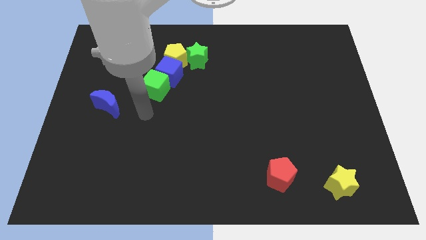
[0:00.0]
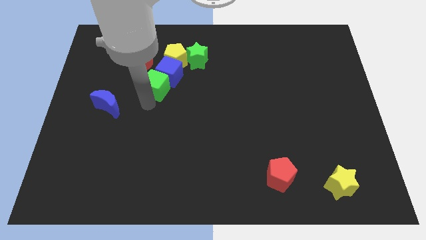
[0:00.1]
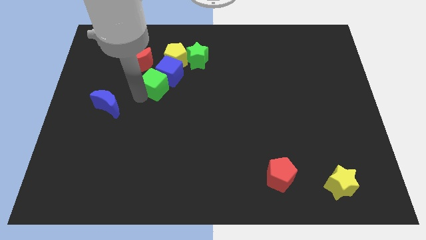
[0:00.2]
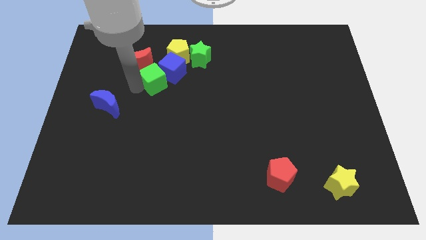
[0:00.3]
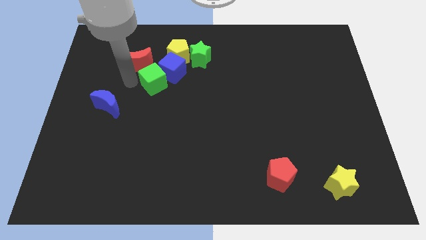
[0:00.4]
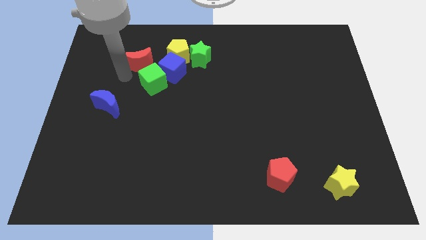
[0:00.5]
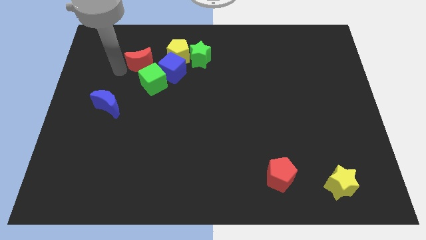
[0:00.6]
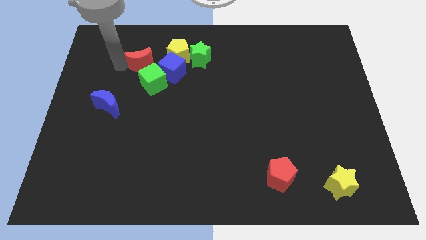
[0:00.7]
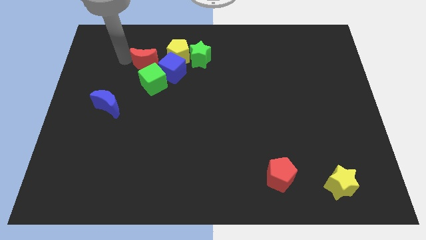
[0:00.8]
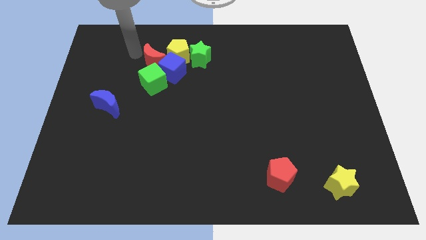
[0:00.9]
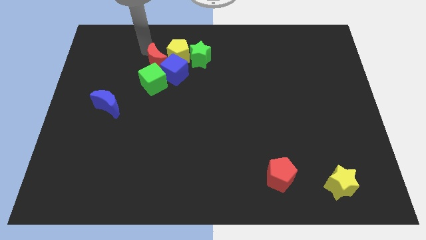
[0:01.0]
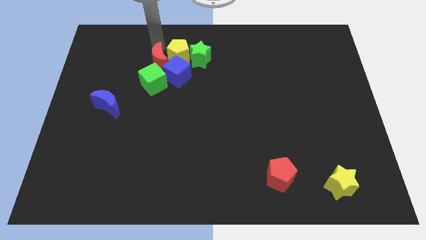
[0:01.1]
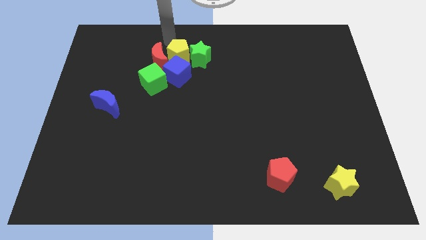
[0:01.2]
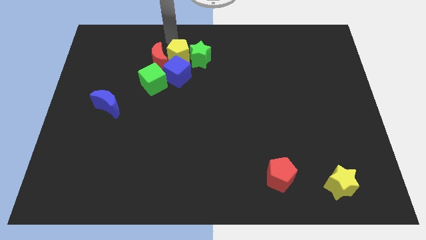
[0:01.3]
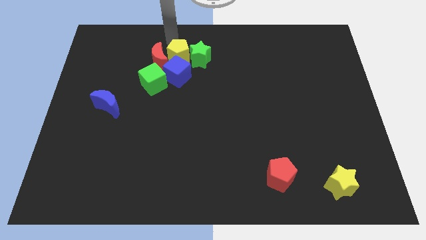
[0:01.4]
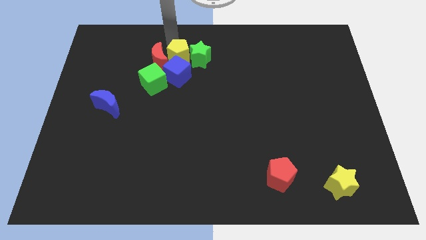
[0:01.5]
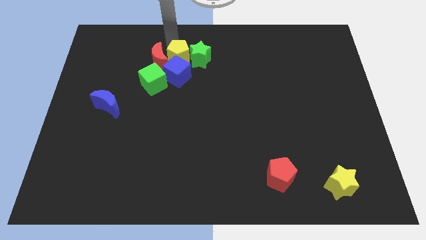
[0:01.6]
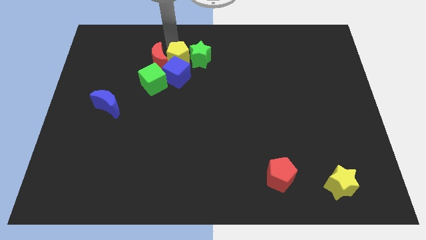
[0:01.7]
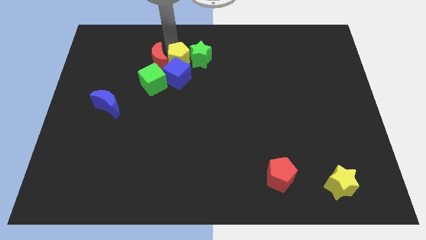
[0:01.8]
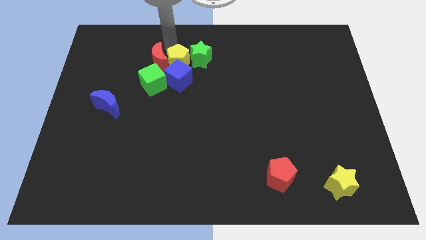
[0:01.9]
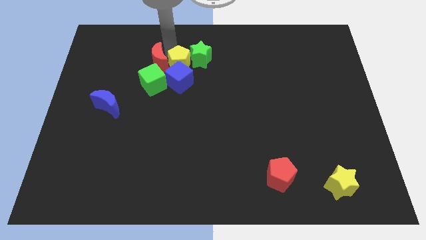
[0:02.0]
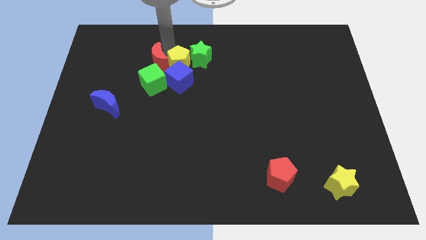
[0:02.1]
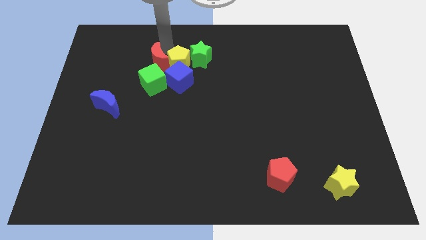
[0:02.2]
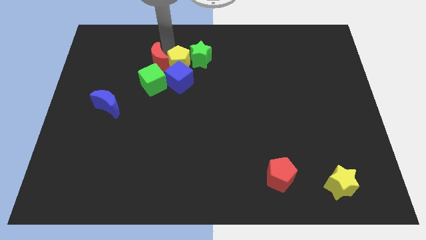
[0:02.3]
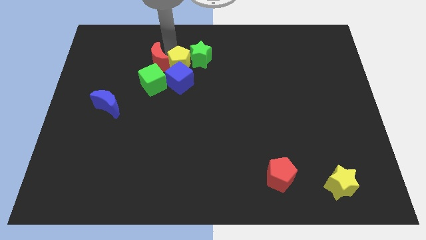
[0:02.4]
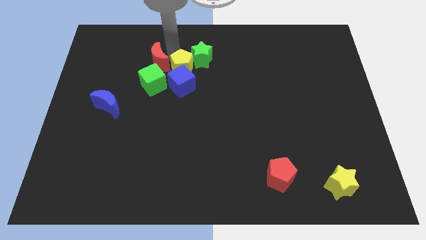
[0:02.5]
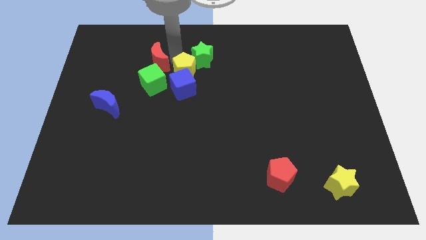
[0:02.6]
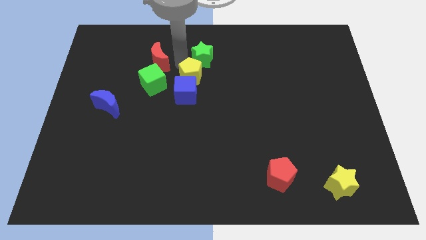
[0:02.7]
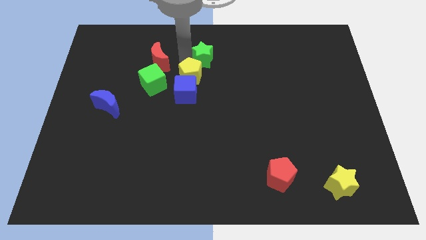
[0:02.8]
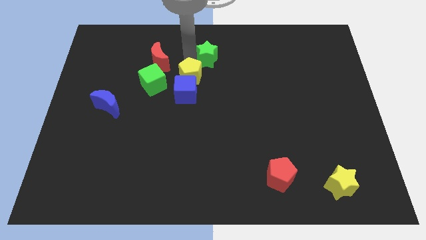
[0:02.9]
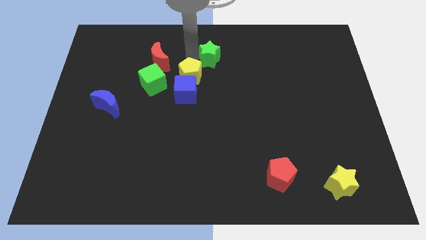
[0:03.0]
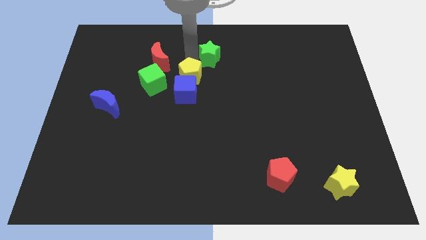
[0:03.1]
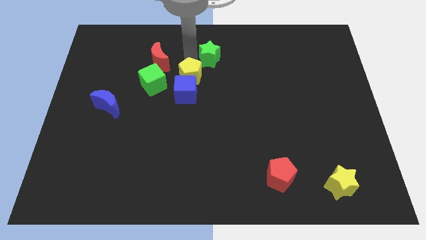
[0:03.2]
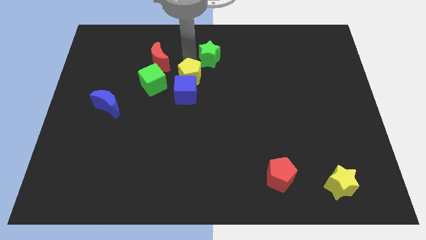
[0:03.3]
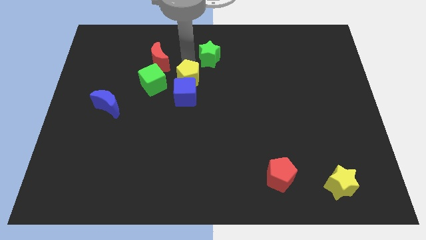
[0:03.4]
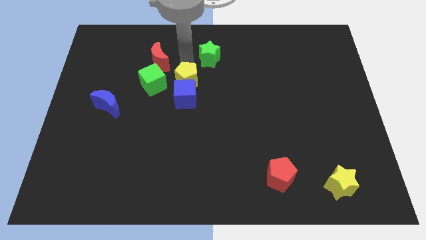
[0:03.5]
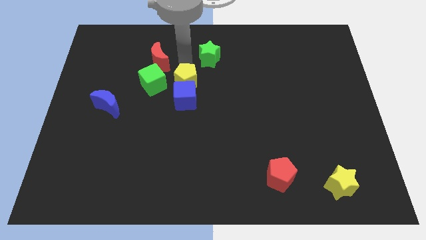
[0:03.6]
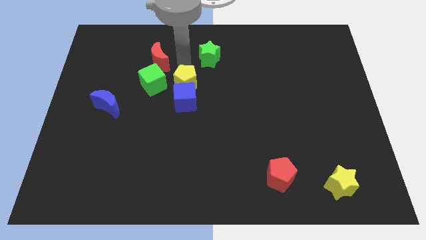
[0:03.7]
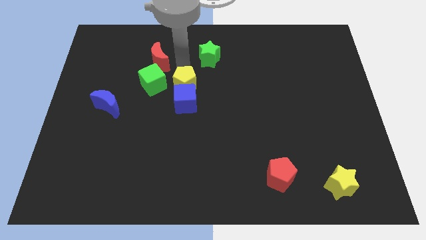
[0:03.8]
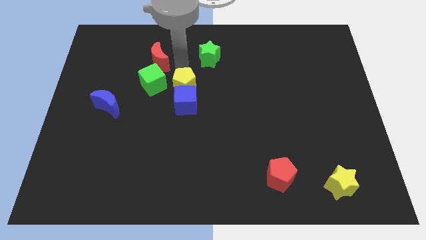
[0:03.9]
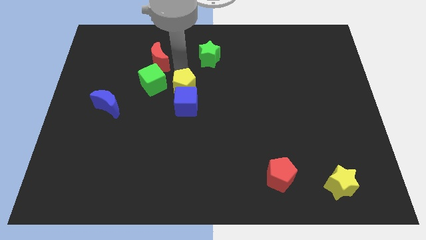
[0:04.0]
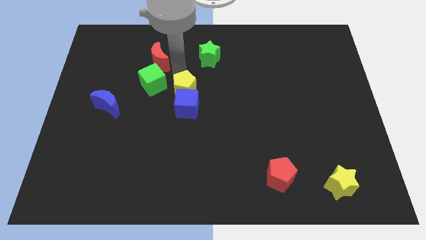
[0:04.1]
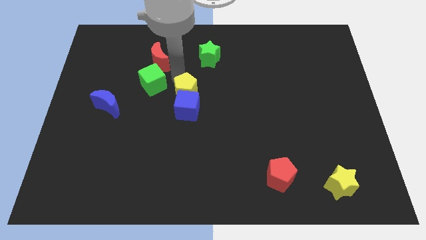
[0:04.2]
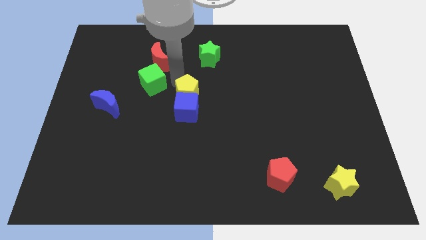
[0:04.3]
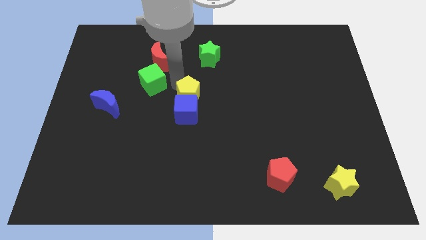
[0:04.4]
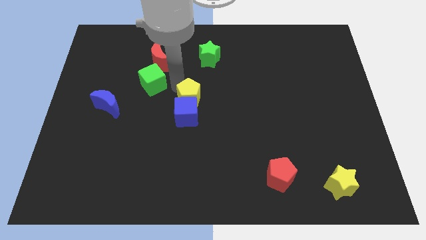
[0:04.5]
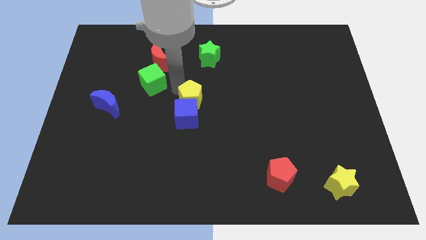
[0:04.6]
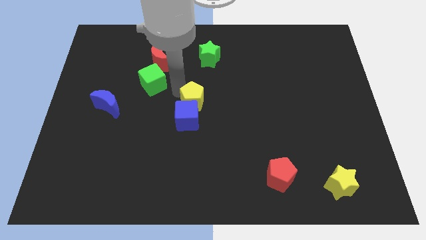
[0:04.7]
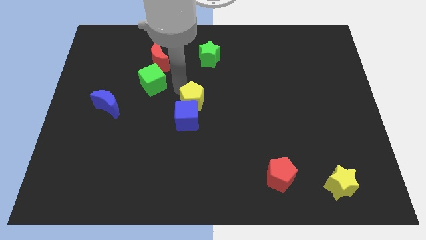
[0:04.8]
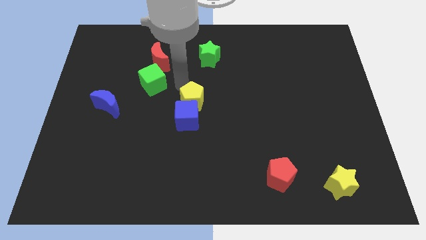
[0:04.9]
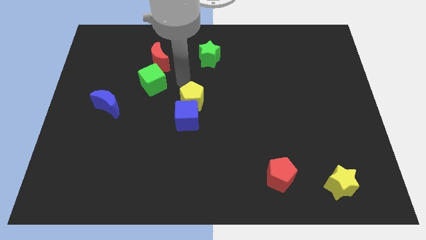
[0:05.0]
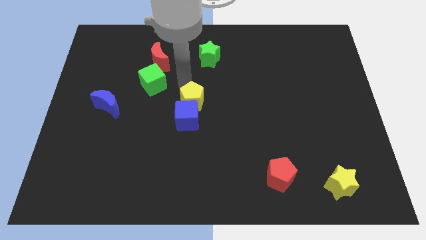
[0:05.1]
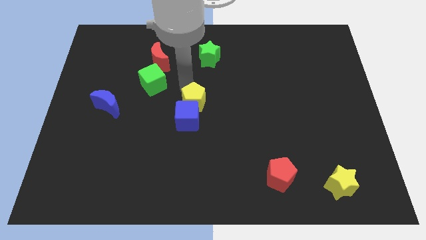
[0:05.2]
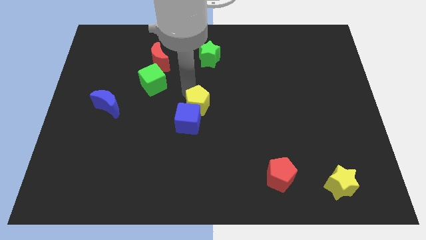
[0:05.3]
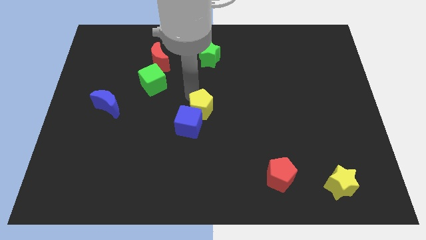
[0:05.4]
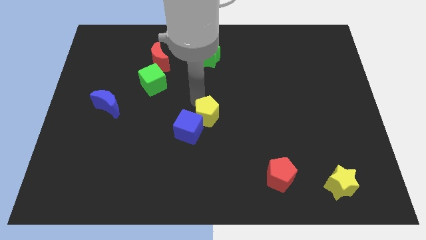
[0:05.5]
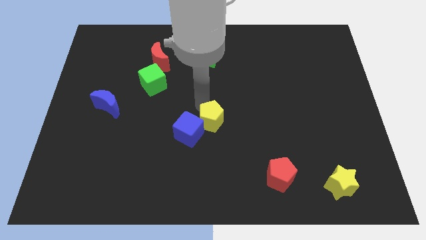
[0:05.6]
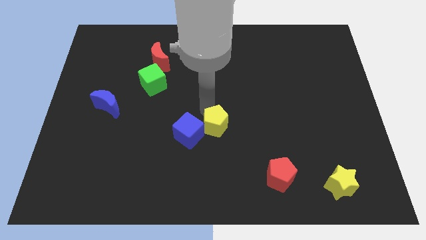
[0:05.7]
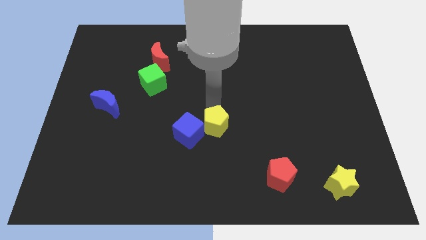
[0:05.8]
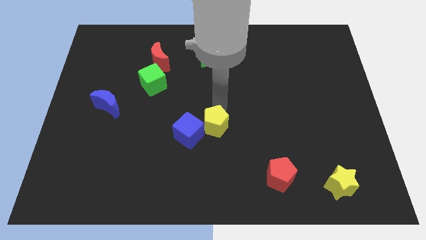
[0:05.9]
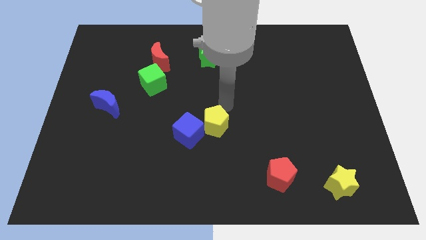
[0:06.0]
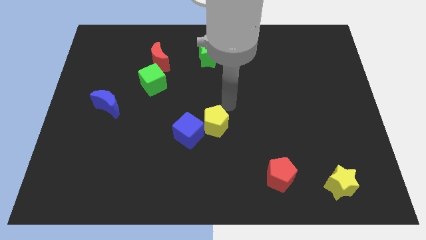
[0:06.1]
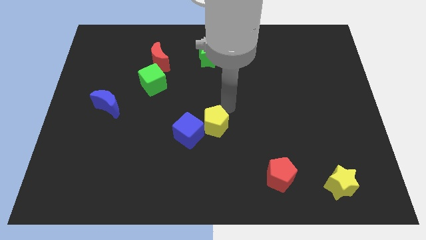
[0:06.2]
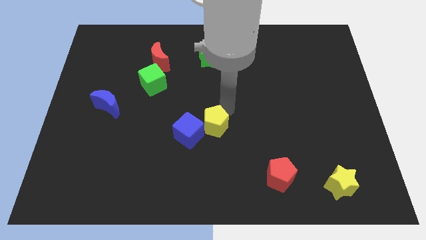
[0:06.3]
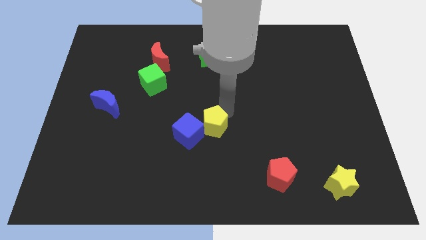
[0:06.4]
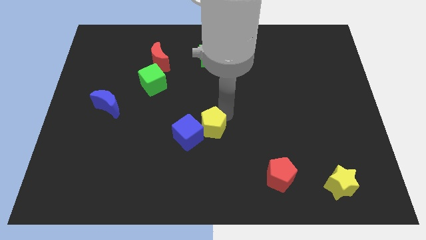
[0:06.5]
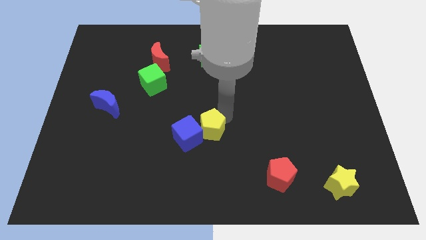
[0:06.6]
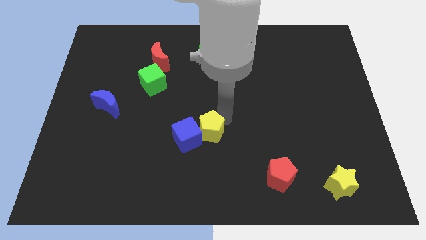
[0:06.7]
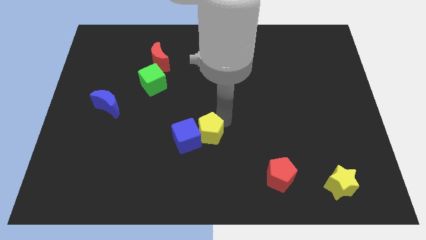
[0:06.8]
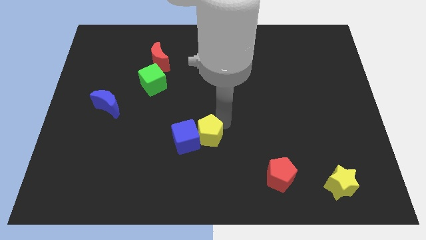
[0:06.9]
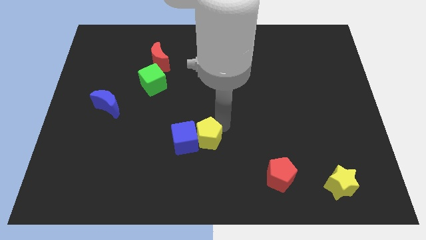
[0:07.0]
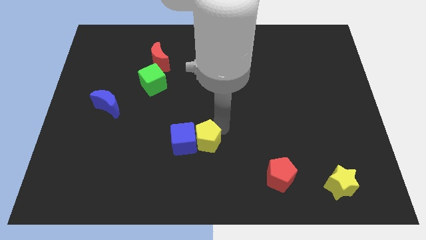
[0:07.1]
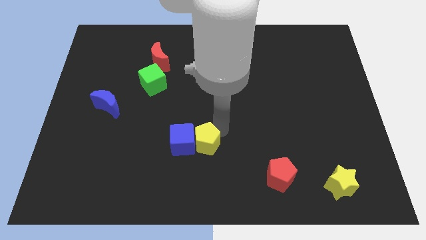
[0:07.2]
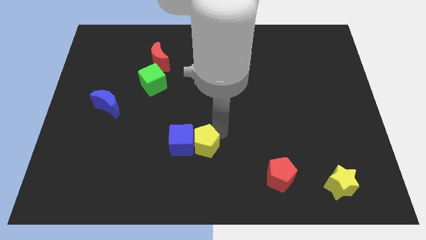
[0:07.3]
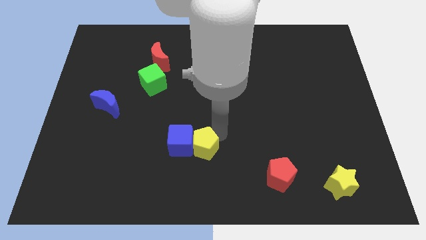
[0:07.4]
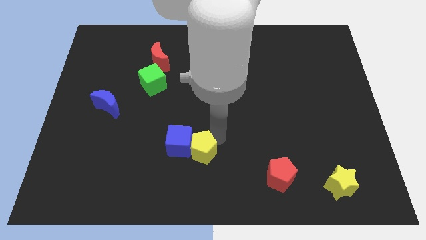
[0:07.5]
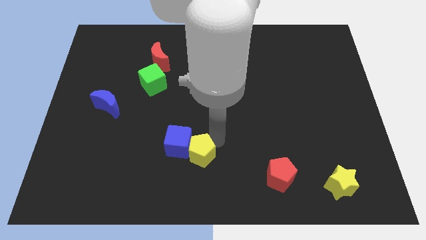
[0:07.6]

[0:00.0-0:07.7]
slide the yellow pentagon to the bottom side
